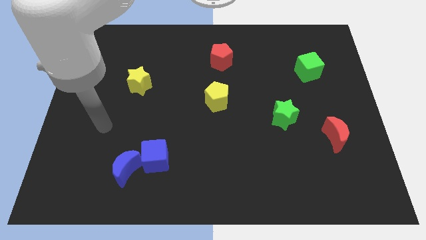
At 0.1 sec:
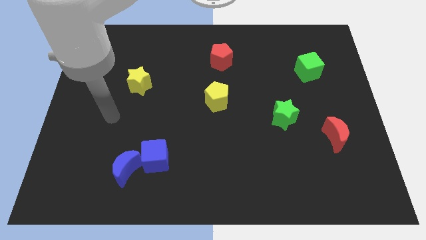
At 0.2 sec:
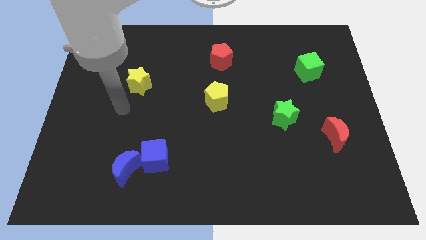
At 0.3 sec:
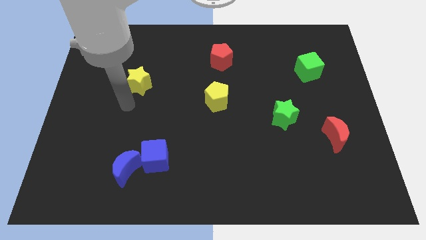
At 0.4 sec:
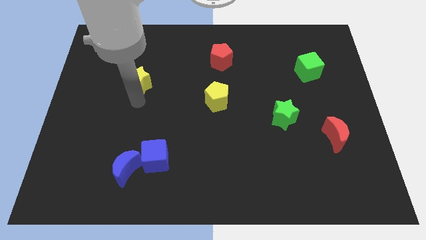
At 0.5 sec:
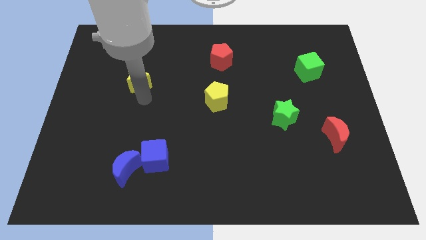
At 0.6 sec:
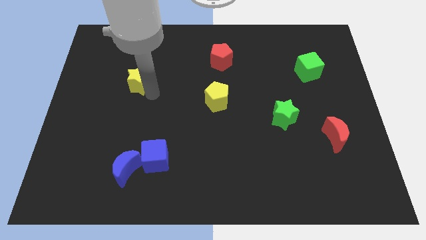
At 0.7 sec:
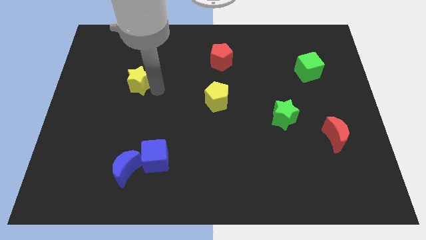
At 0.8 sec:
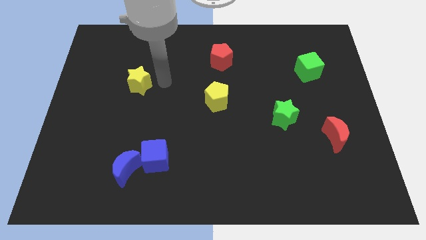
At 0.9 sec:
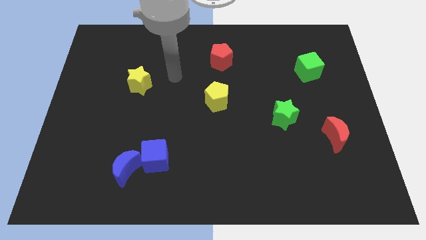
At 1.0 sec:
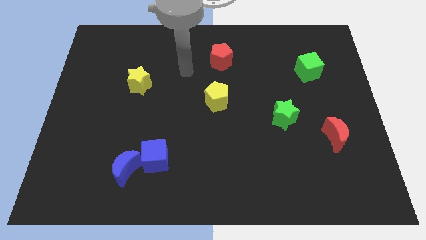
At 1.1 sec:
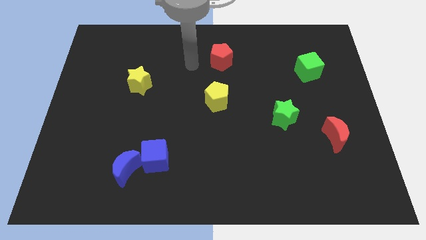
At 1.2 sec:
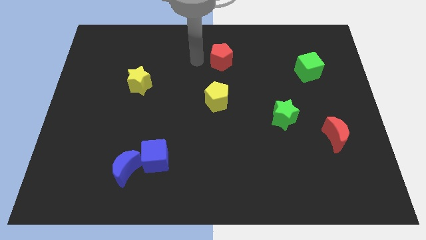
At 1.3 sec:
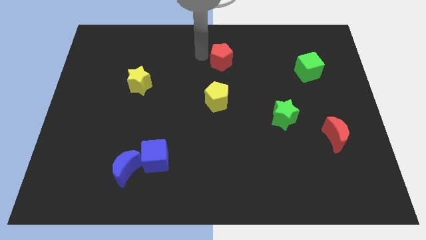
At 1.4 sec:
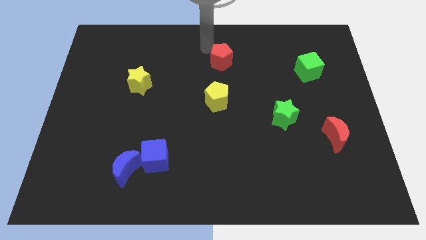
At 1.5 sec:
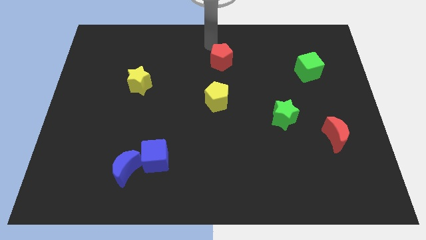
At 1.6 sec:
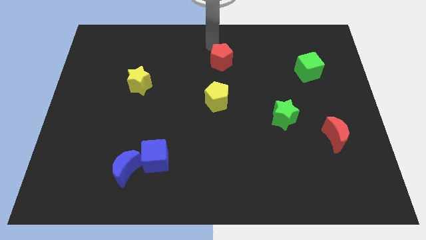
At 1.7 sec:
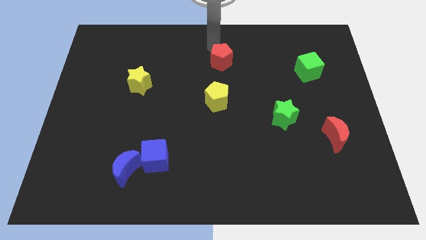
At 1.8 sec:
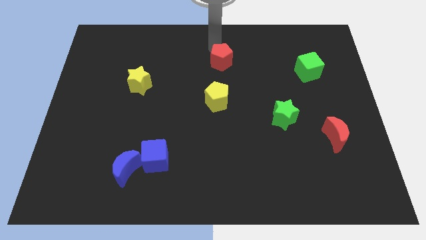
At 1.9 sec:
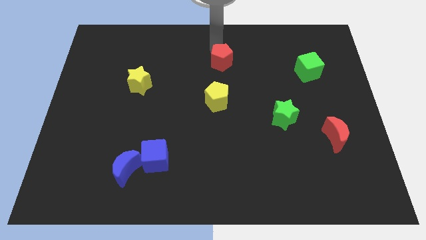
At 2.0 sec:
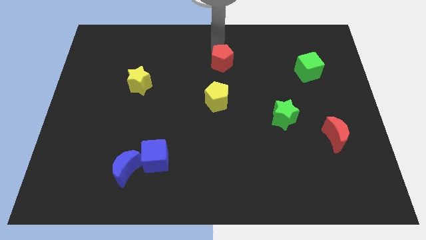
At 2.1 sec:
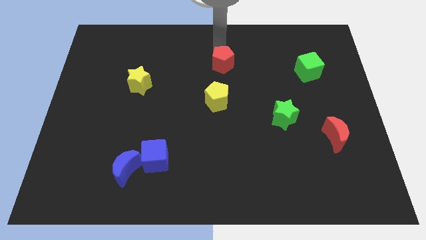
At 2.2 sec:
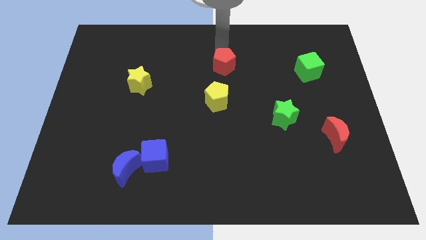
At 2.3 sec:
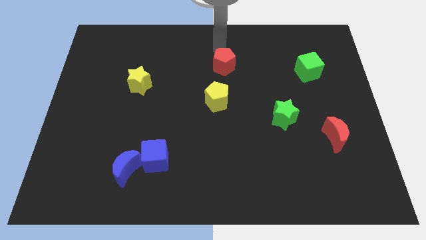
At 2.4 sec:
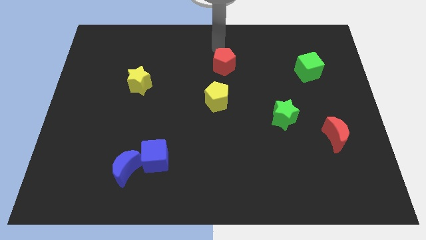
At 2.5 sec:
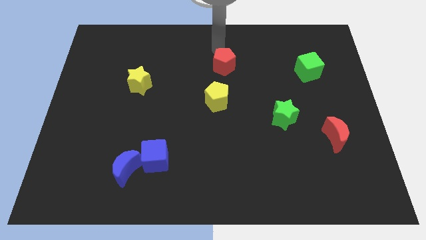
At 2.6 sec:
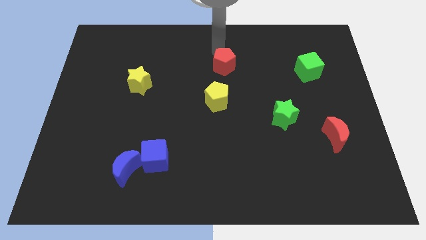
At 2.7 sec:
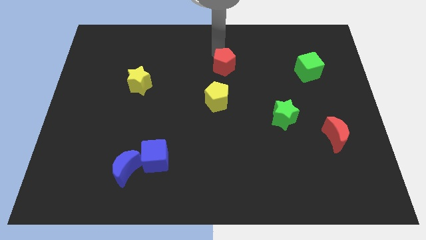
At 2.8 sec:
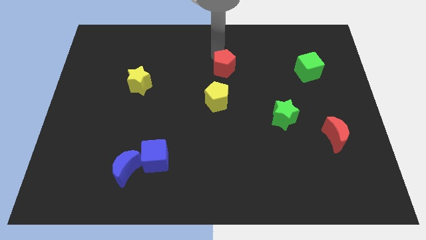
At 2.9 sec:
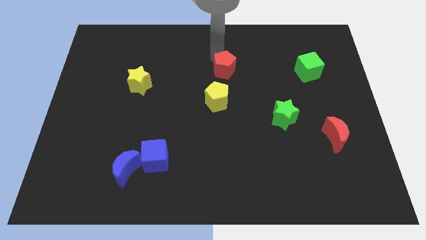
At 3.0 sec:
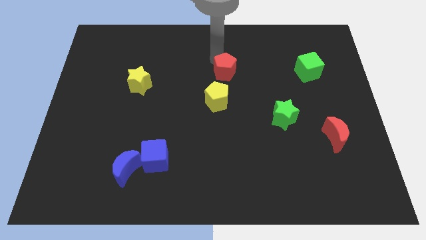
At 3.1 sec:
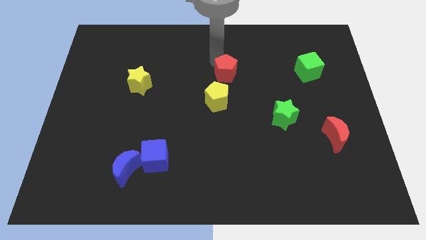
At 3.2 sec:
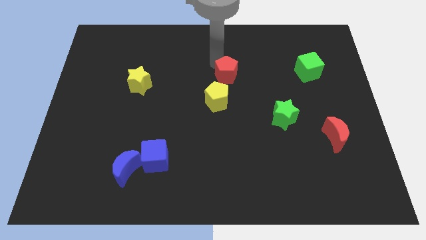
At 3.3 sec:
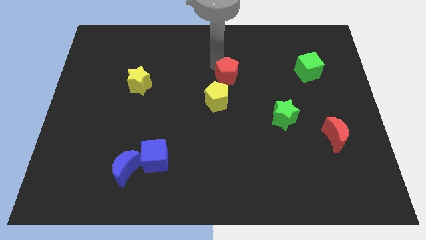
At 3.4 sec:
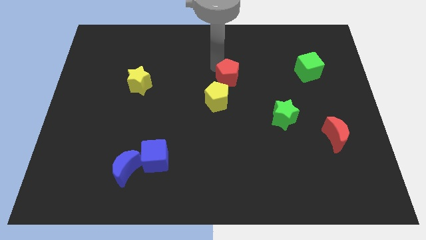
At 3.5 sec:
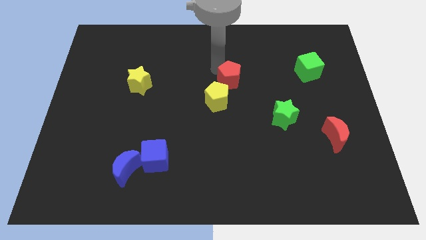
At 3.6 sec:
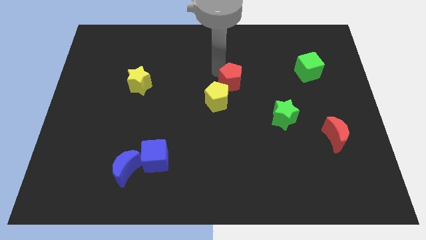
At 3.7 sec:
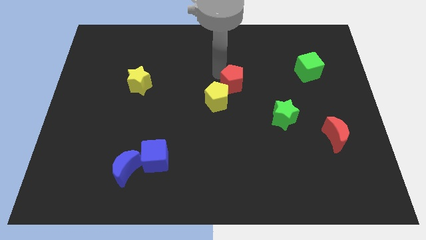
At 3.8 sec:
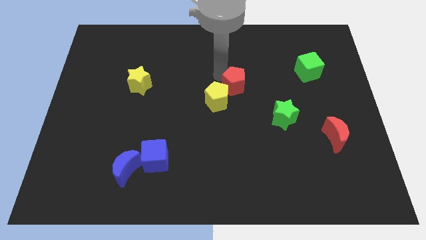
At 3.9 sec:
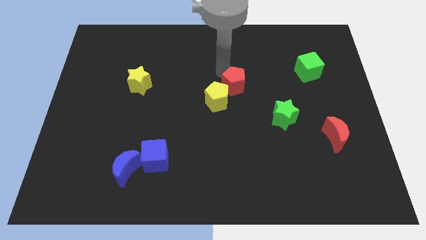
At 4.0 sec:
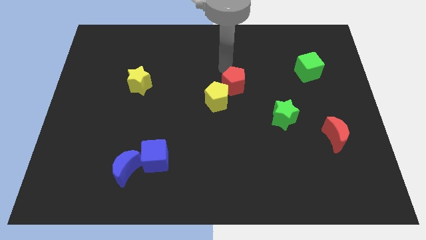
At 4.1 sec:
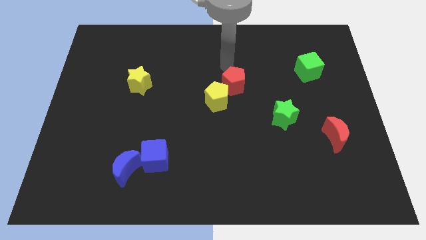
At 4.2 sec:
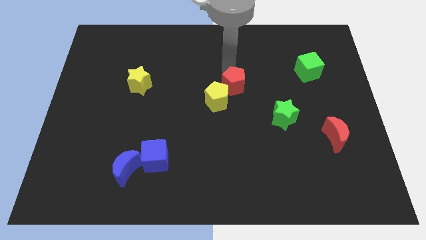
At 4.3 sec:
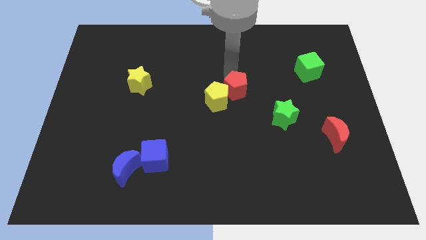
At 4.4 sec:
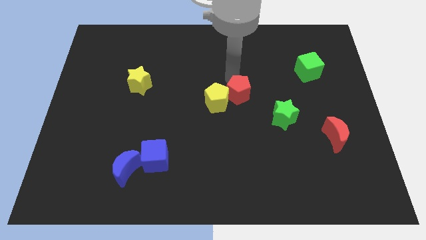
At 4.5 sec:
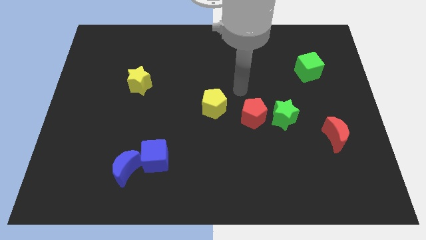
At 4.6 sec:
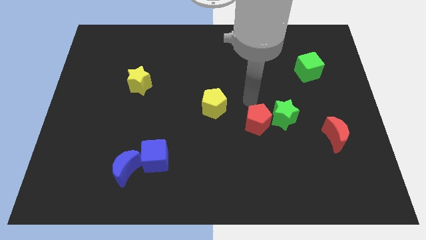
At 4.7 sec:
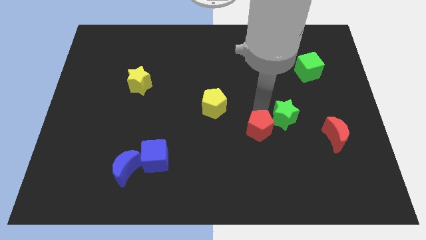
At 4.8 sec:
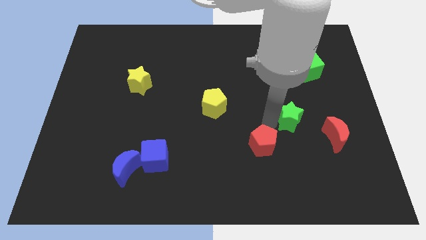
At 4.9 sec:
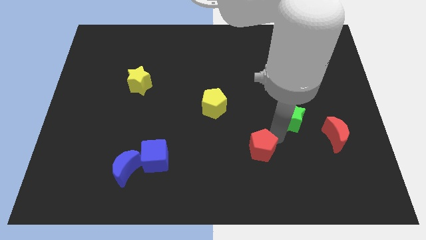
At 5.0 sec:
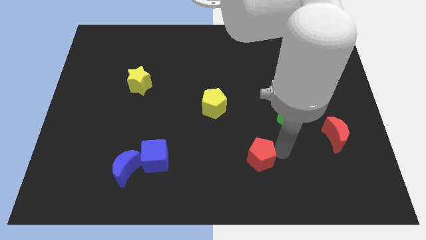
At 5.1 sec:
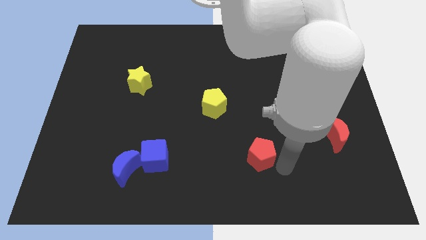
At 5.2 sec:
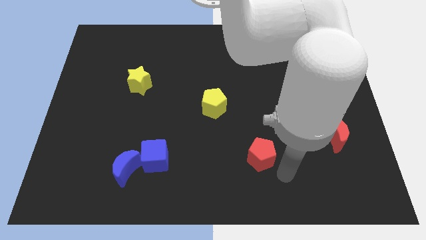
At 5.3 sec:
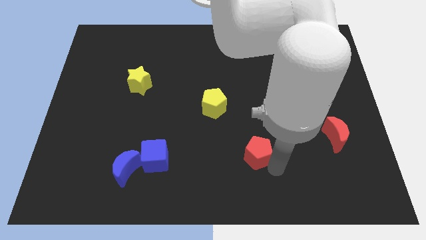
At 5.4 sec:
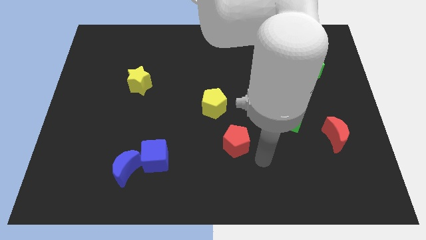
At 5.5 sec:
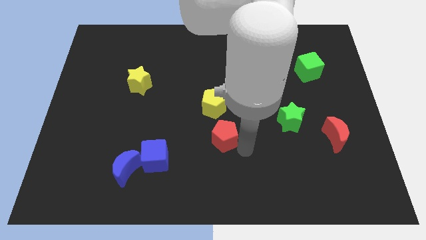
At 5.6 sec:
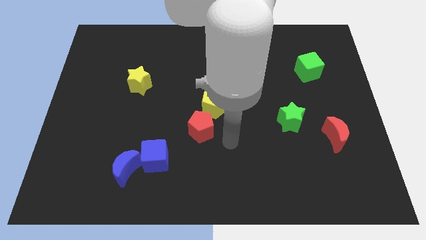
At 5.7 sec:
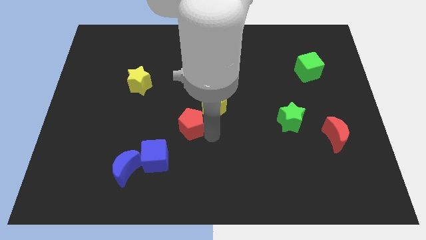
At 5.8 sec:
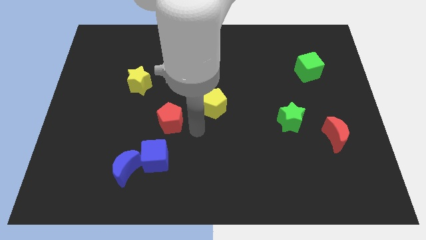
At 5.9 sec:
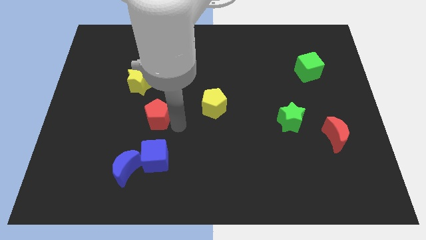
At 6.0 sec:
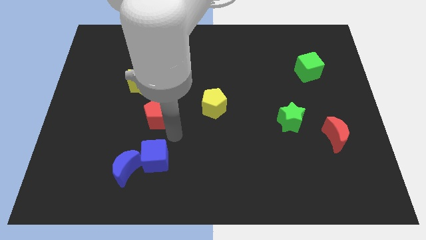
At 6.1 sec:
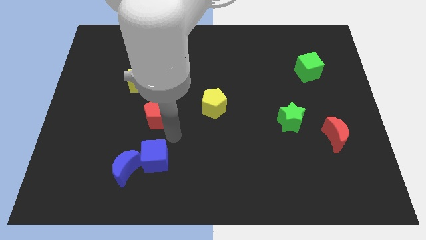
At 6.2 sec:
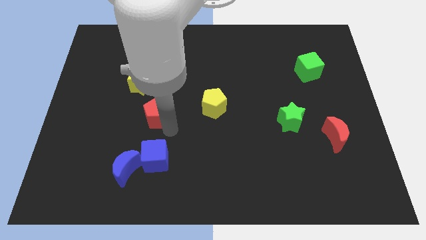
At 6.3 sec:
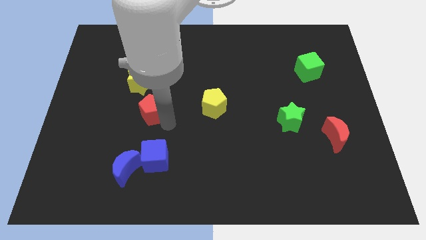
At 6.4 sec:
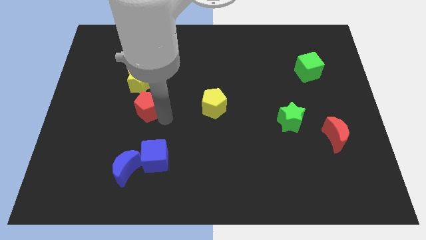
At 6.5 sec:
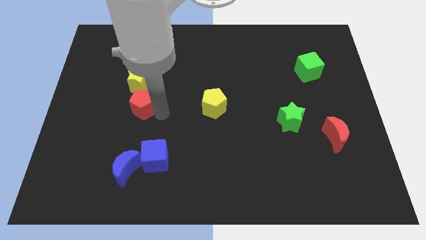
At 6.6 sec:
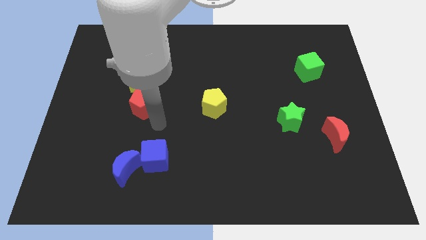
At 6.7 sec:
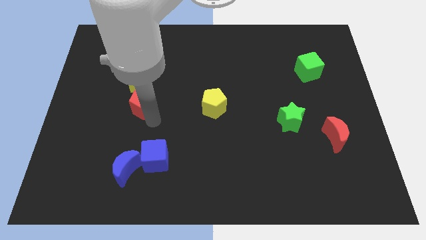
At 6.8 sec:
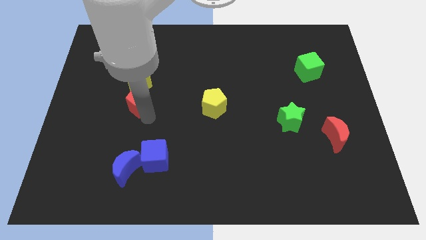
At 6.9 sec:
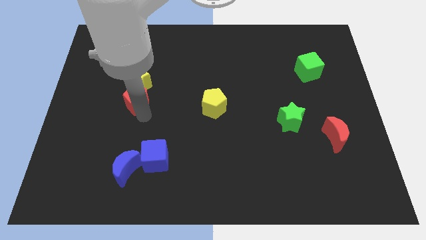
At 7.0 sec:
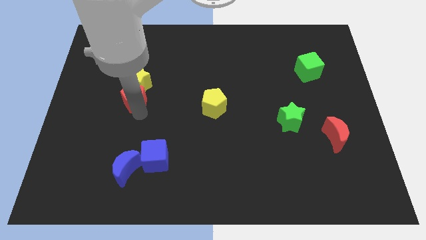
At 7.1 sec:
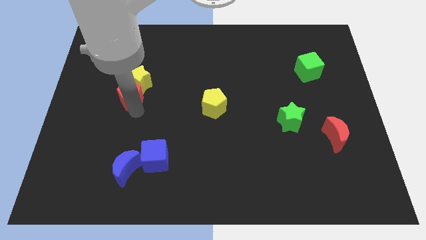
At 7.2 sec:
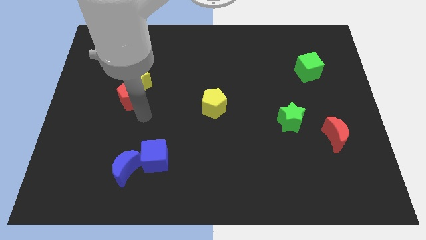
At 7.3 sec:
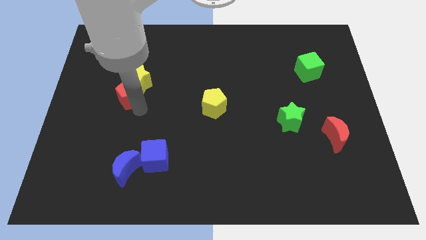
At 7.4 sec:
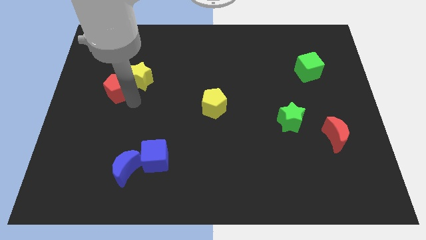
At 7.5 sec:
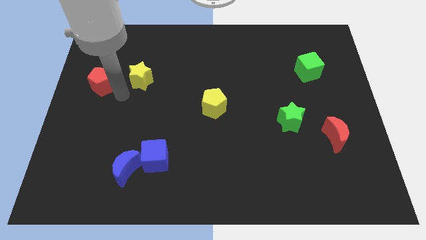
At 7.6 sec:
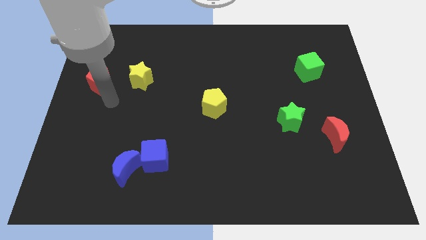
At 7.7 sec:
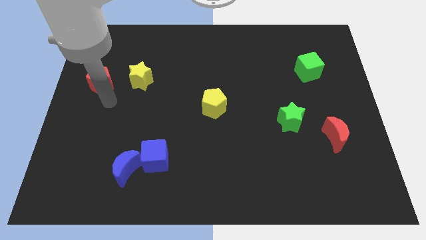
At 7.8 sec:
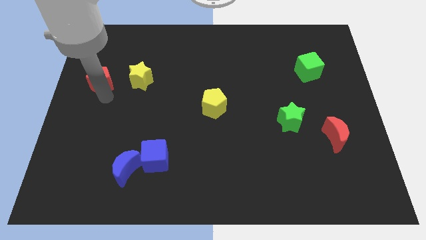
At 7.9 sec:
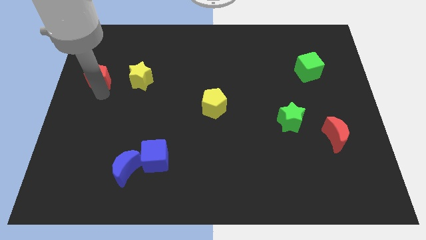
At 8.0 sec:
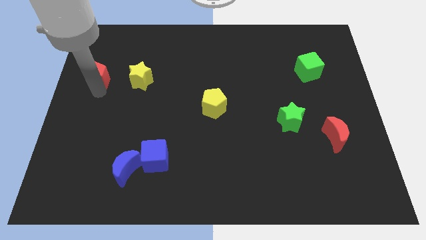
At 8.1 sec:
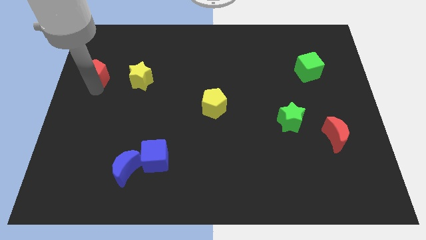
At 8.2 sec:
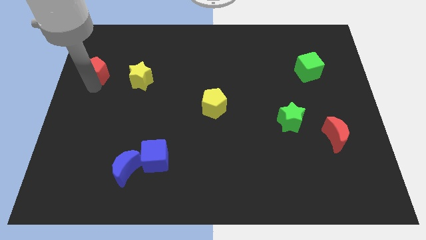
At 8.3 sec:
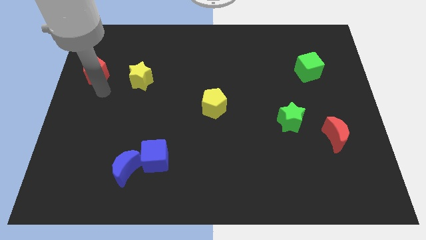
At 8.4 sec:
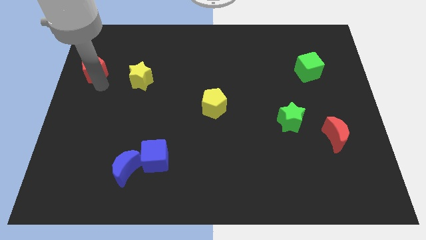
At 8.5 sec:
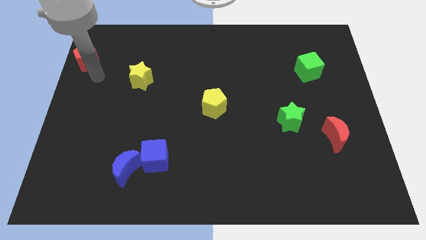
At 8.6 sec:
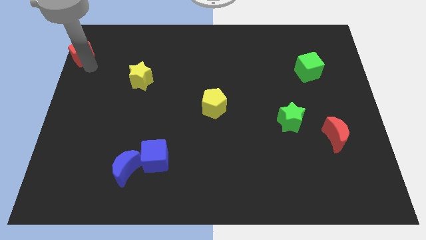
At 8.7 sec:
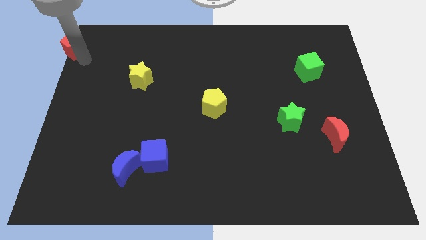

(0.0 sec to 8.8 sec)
move the red pentagon to the upper left corner

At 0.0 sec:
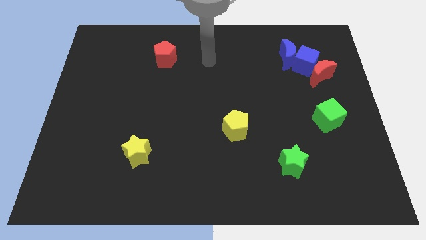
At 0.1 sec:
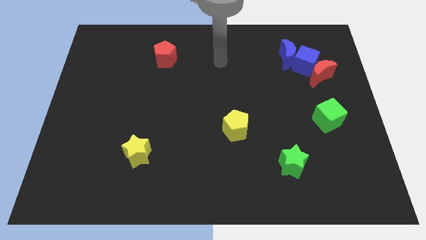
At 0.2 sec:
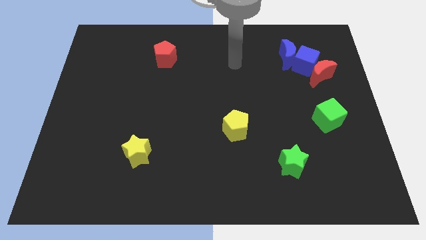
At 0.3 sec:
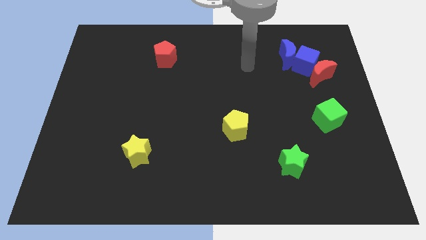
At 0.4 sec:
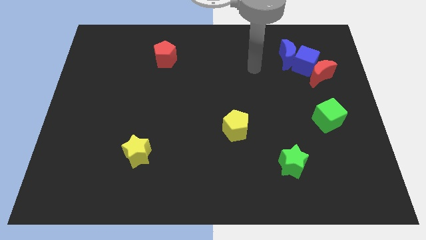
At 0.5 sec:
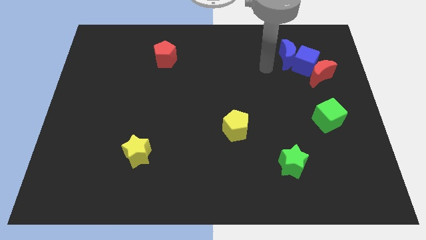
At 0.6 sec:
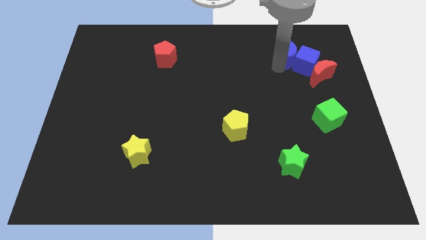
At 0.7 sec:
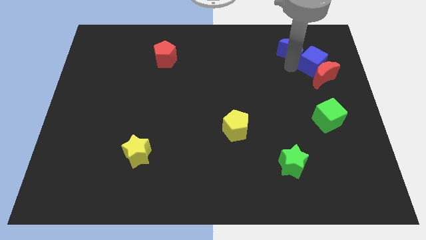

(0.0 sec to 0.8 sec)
push the red moon to the right side of the board
